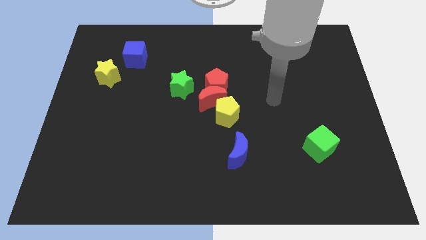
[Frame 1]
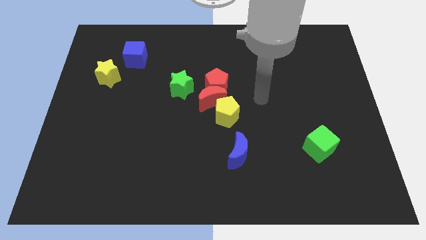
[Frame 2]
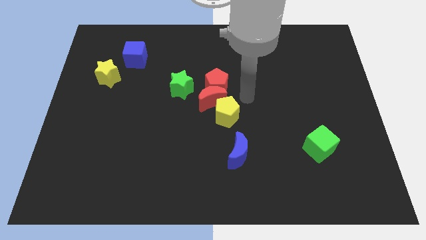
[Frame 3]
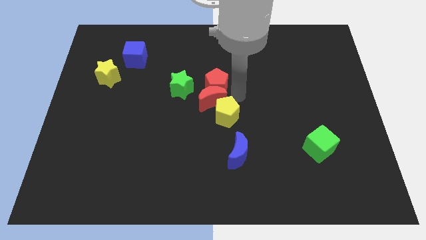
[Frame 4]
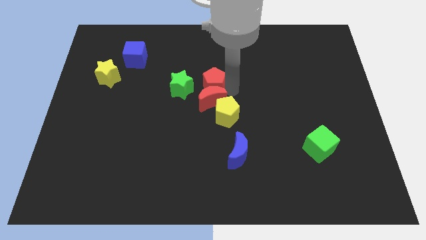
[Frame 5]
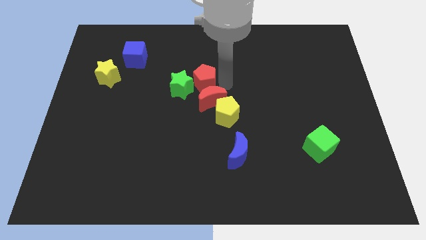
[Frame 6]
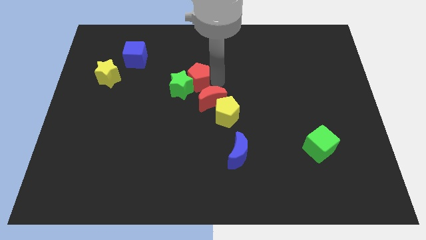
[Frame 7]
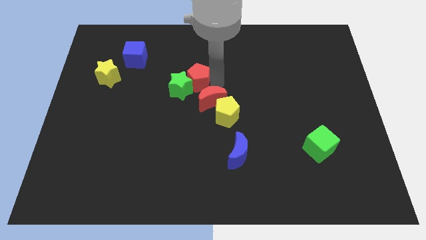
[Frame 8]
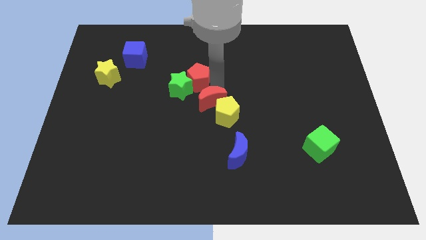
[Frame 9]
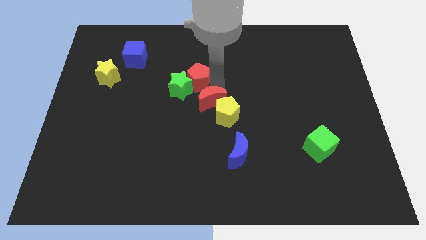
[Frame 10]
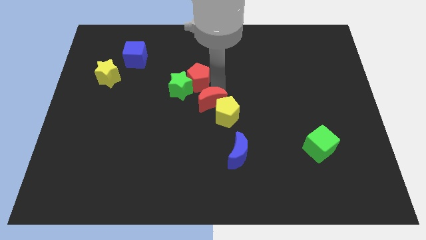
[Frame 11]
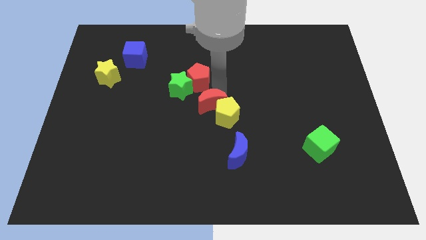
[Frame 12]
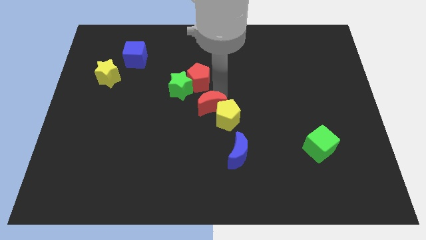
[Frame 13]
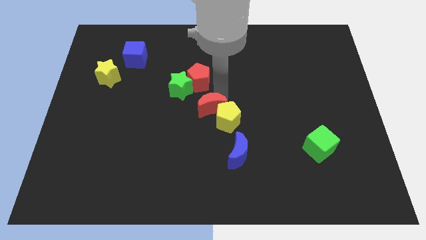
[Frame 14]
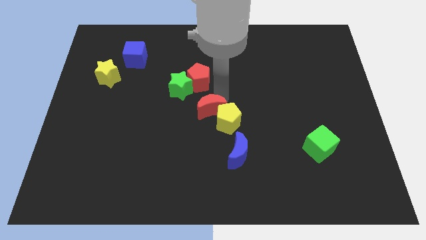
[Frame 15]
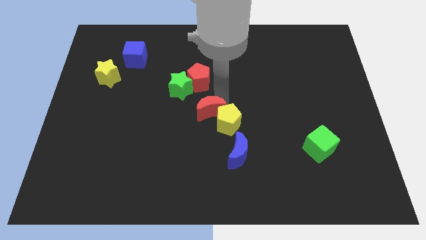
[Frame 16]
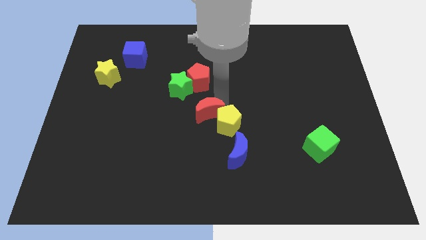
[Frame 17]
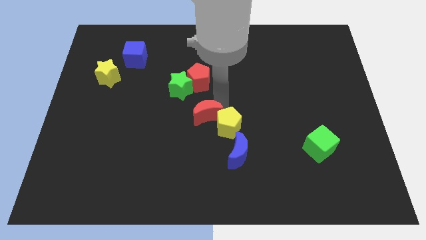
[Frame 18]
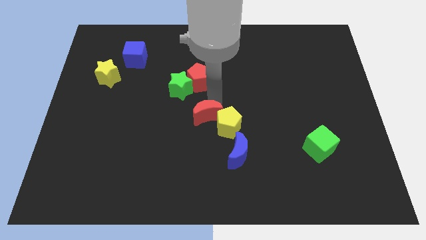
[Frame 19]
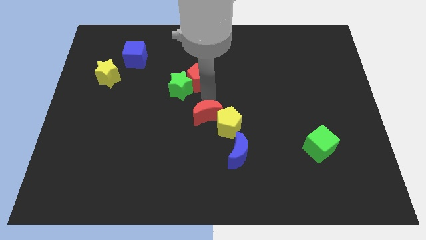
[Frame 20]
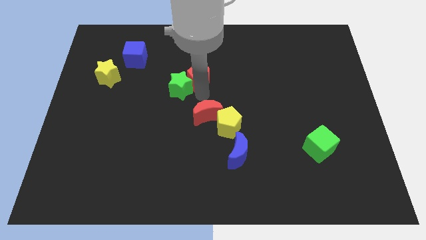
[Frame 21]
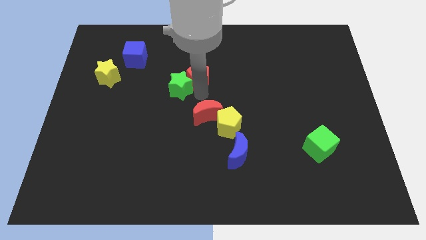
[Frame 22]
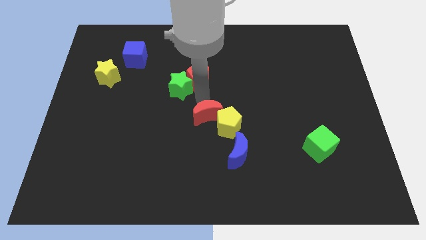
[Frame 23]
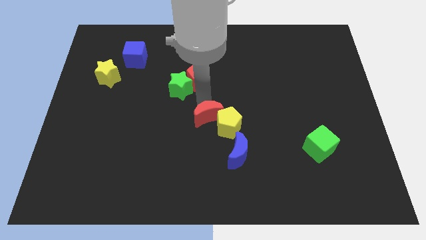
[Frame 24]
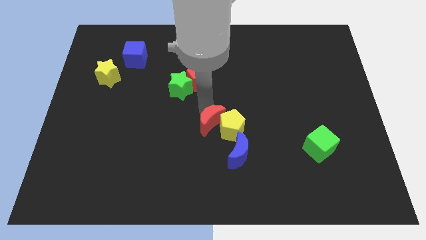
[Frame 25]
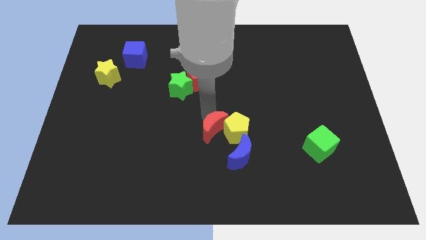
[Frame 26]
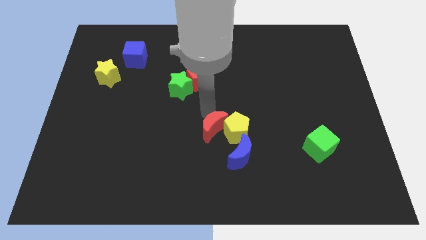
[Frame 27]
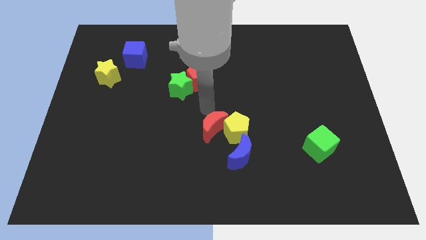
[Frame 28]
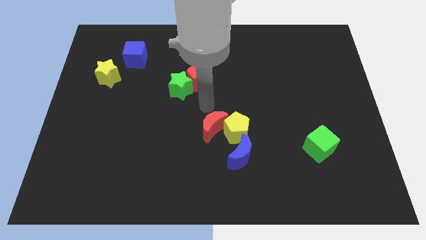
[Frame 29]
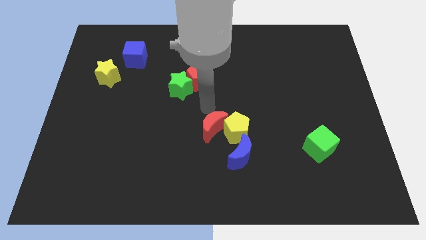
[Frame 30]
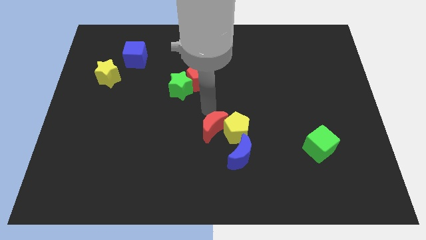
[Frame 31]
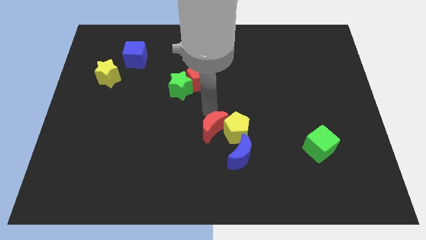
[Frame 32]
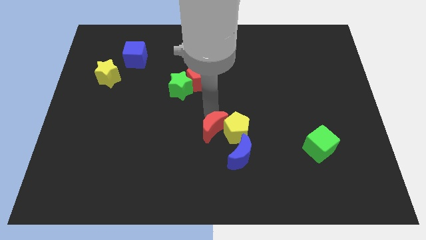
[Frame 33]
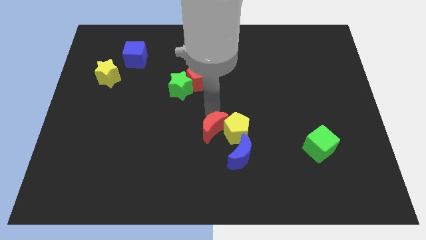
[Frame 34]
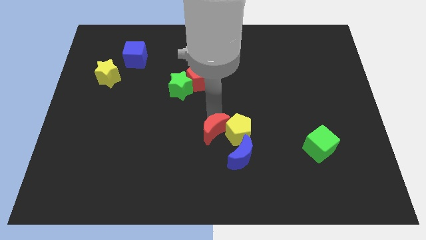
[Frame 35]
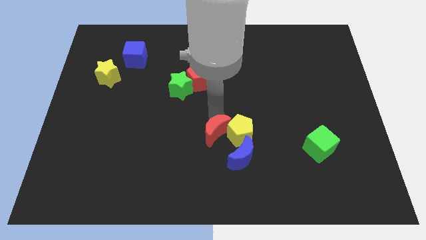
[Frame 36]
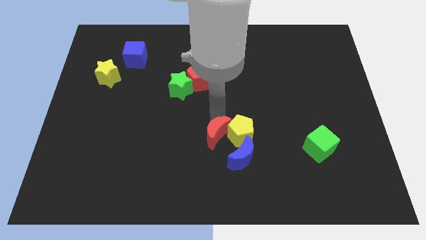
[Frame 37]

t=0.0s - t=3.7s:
separate the red moon from the group of blocks

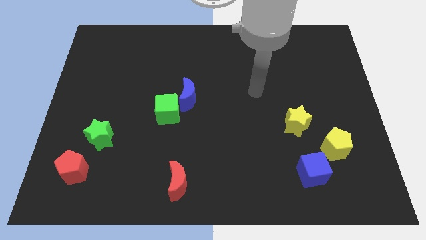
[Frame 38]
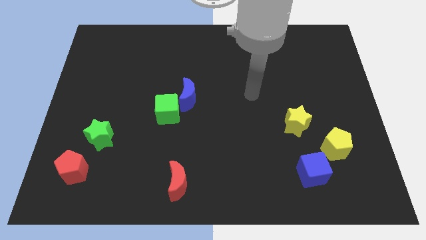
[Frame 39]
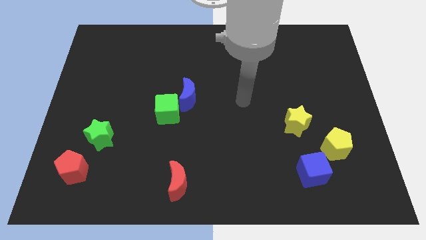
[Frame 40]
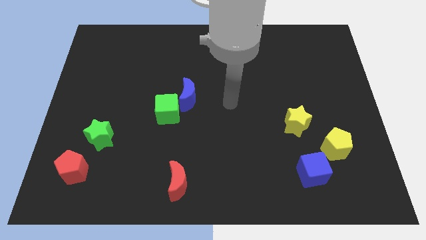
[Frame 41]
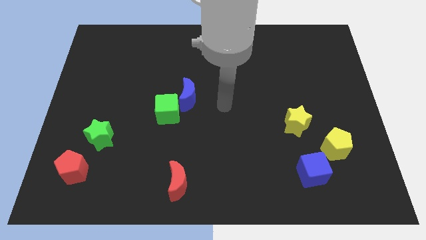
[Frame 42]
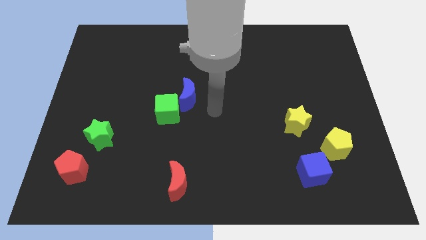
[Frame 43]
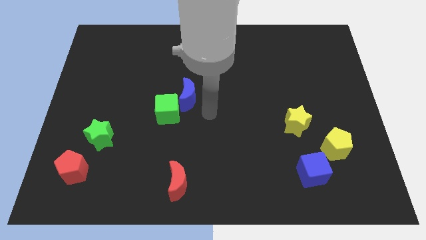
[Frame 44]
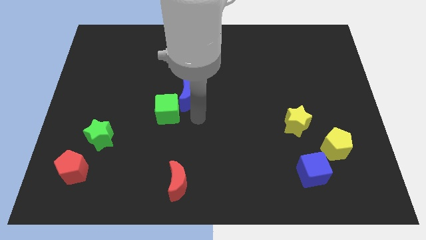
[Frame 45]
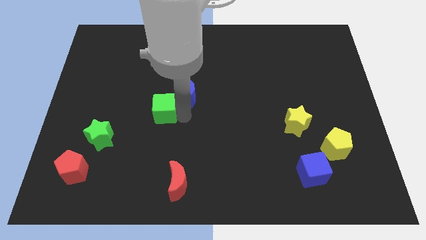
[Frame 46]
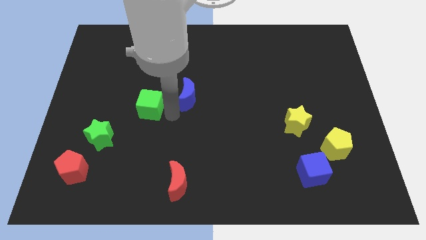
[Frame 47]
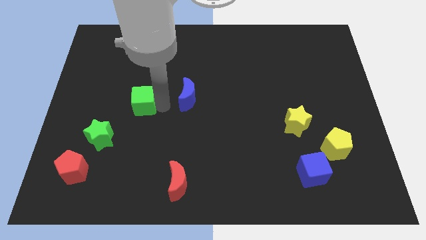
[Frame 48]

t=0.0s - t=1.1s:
pull the blue moon apart from the green cube

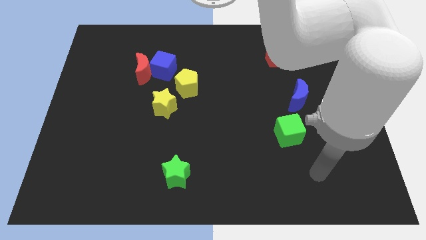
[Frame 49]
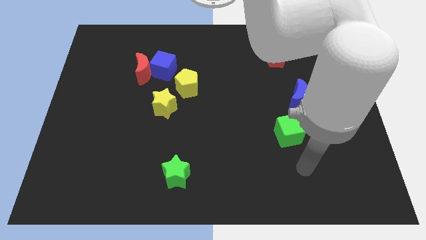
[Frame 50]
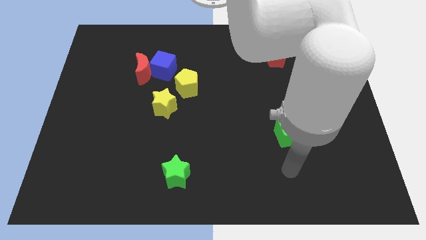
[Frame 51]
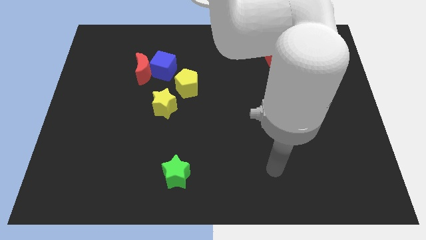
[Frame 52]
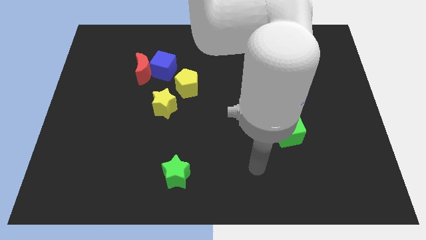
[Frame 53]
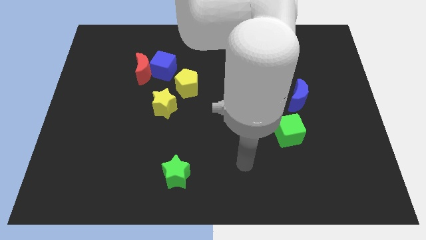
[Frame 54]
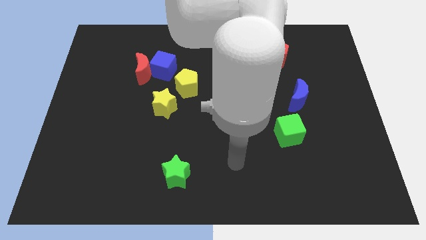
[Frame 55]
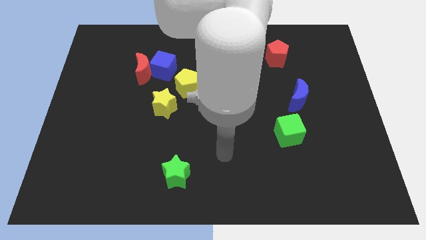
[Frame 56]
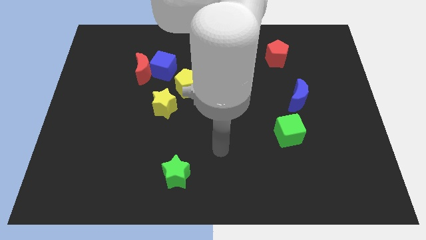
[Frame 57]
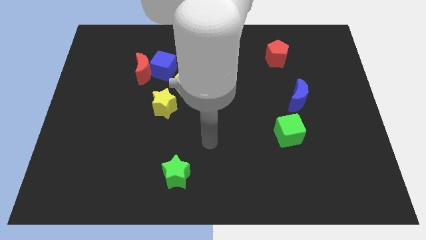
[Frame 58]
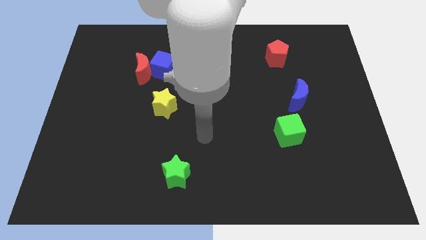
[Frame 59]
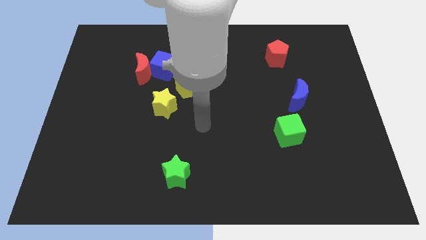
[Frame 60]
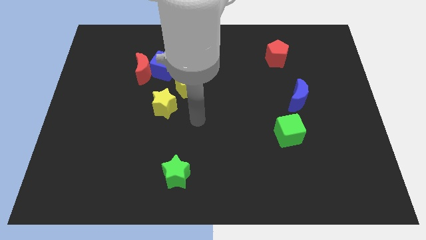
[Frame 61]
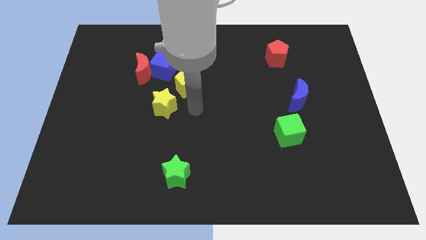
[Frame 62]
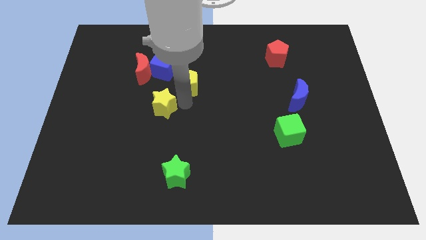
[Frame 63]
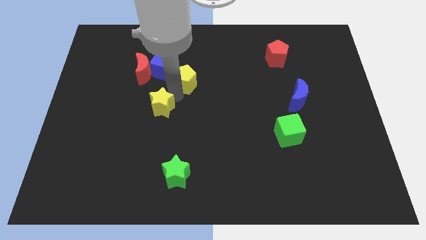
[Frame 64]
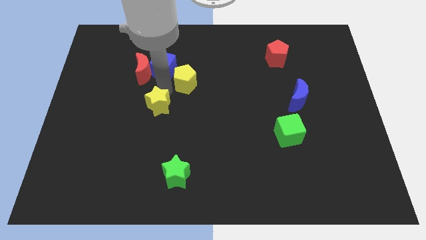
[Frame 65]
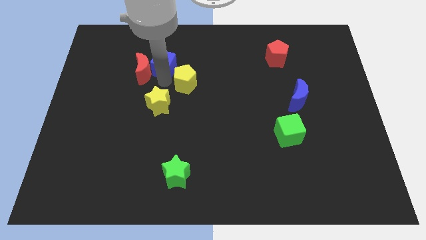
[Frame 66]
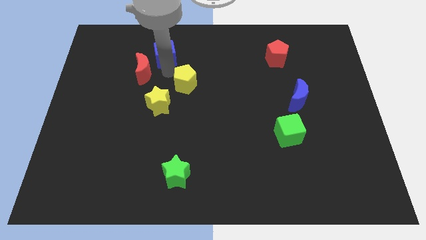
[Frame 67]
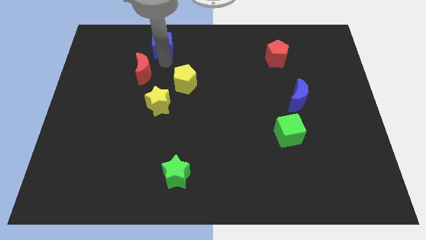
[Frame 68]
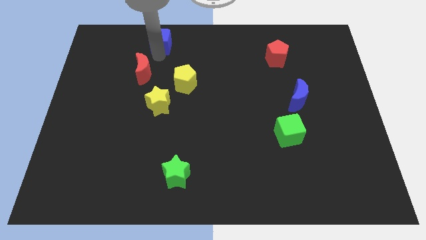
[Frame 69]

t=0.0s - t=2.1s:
pull the red moon apart from the blue cube

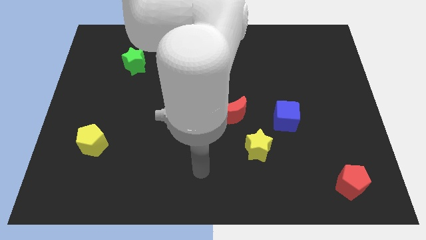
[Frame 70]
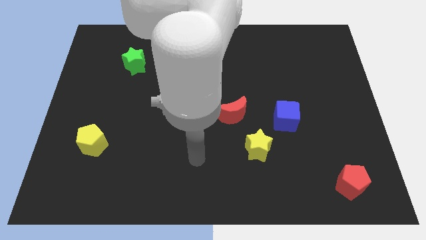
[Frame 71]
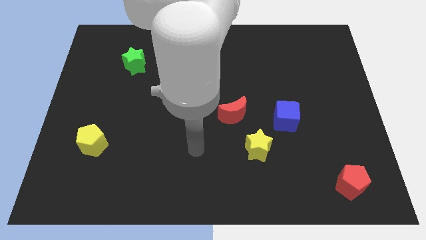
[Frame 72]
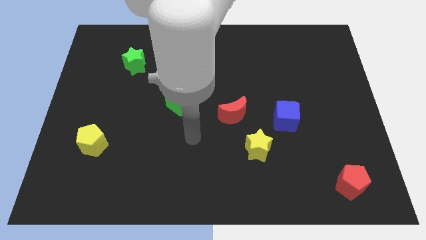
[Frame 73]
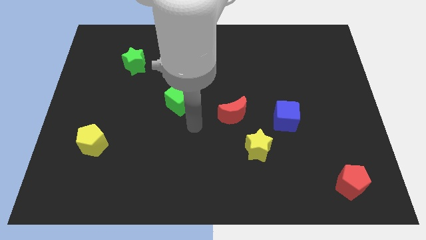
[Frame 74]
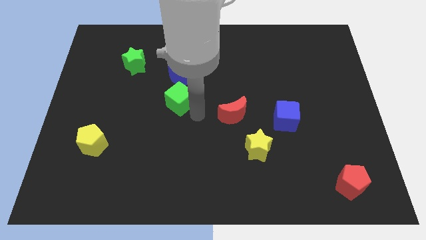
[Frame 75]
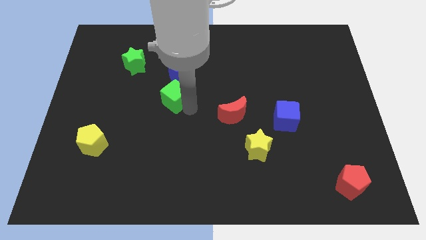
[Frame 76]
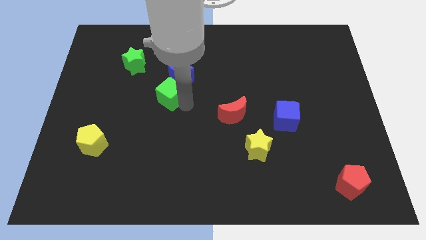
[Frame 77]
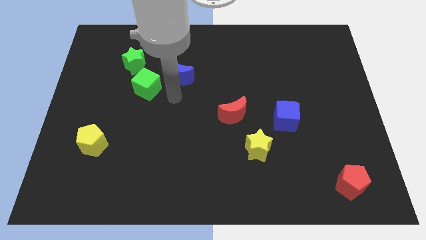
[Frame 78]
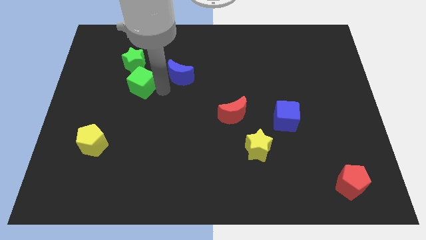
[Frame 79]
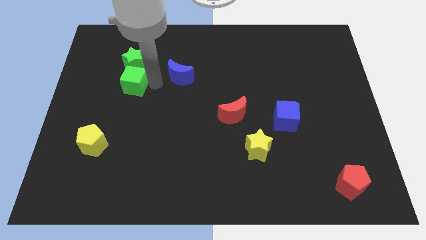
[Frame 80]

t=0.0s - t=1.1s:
separate the blue moon from the green cube

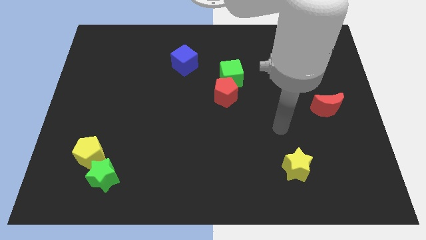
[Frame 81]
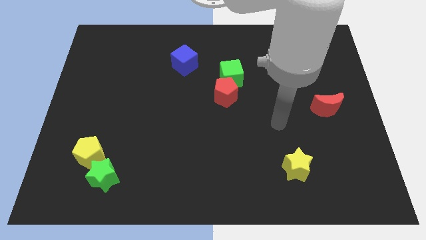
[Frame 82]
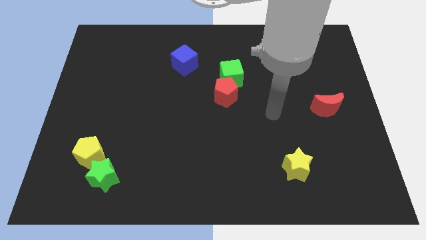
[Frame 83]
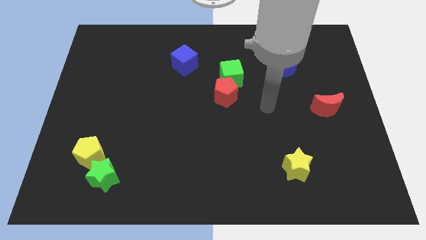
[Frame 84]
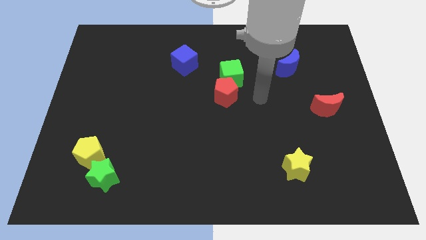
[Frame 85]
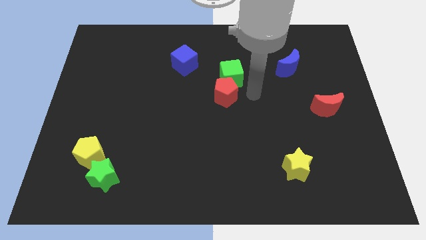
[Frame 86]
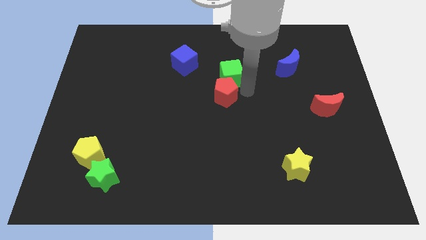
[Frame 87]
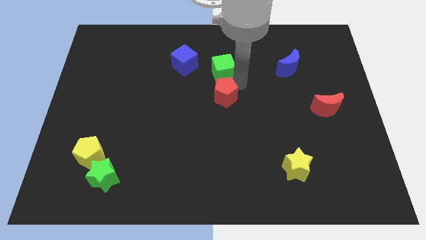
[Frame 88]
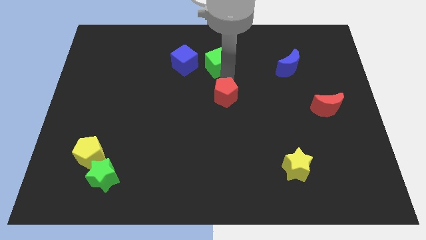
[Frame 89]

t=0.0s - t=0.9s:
separate the red pentagon from the green cube

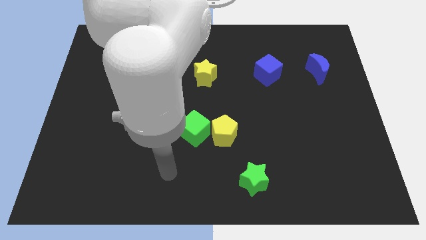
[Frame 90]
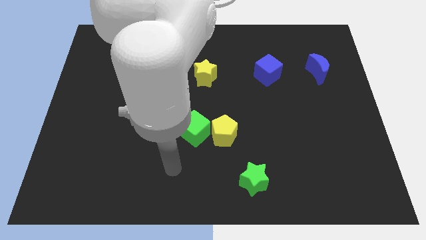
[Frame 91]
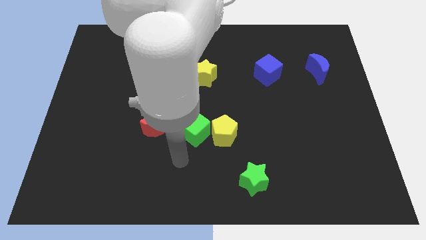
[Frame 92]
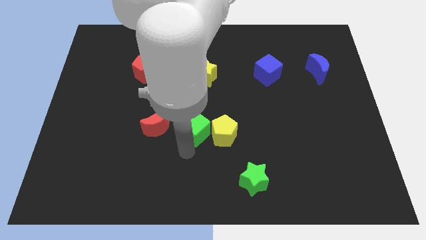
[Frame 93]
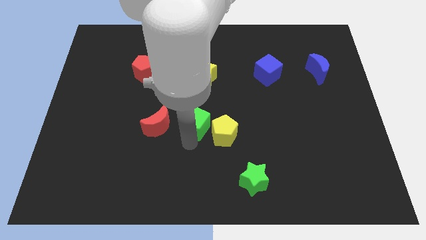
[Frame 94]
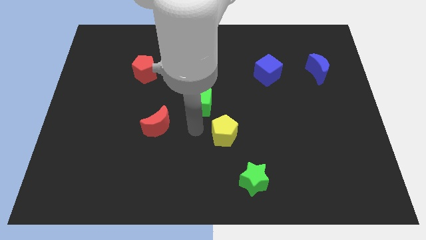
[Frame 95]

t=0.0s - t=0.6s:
pull the yellow pentagon apart from the green cube
